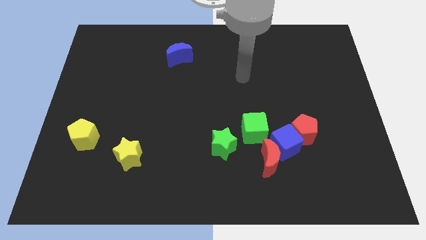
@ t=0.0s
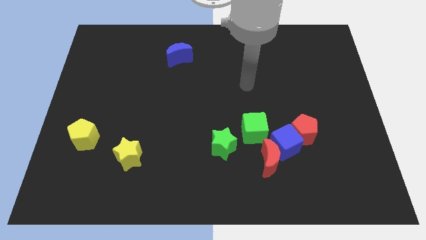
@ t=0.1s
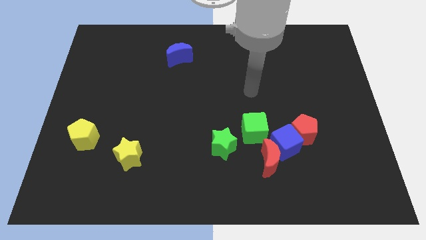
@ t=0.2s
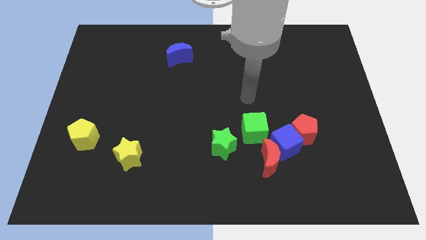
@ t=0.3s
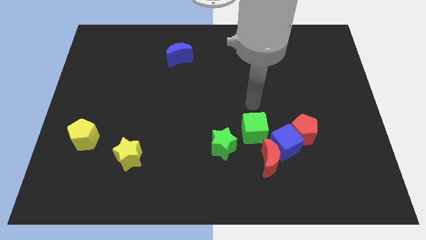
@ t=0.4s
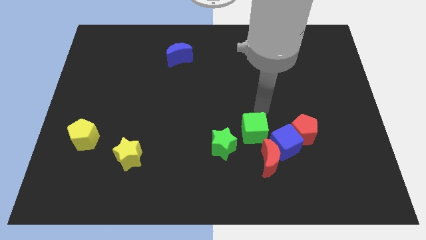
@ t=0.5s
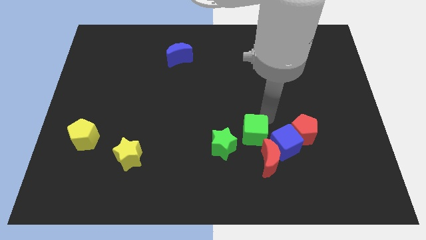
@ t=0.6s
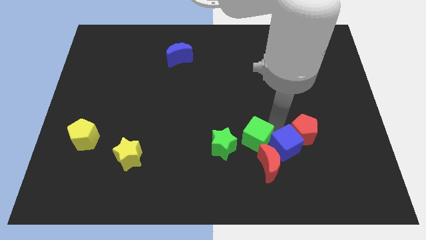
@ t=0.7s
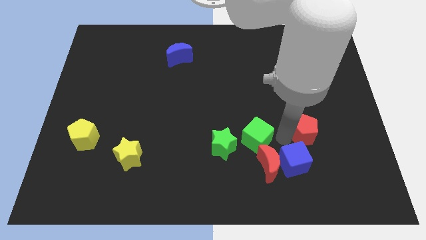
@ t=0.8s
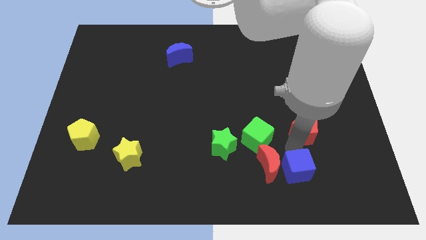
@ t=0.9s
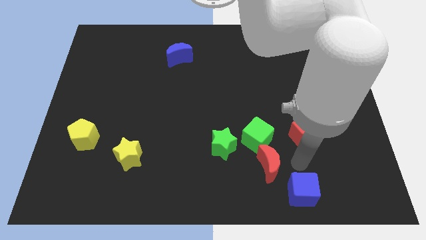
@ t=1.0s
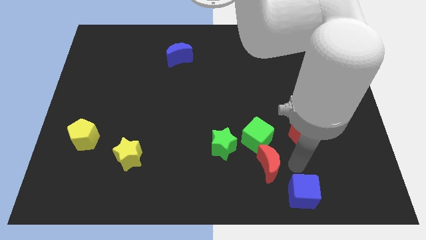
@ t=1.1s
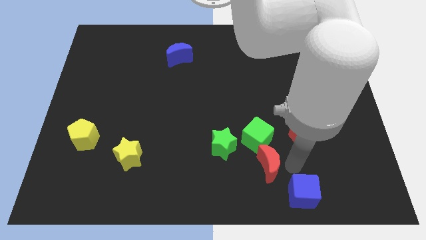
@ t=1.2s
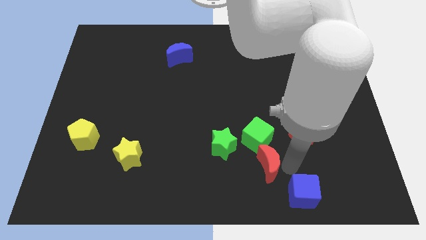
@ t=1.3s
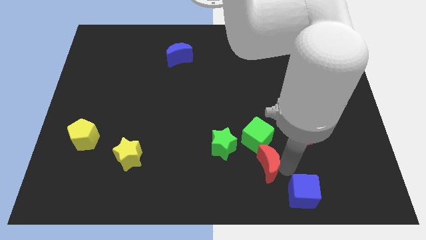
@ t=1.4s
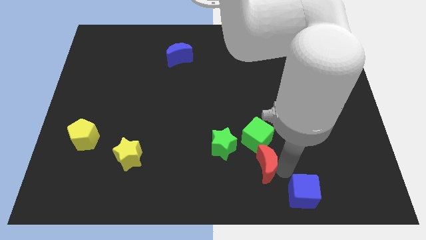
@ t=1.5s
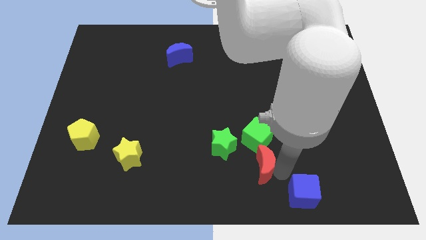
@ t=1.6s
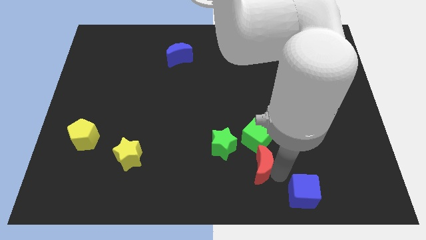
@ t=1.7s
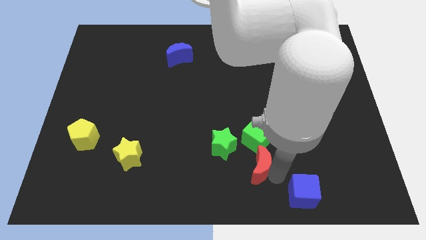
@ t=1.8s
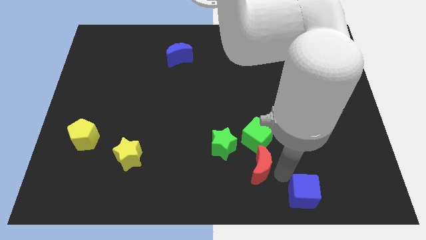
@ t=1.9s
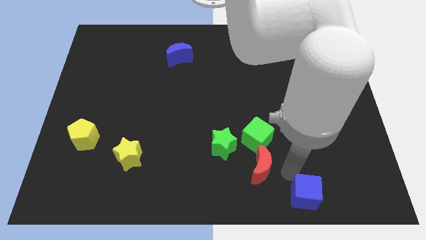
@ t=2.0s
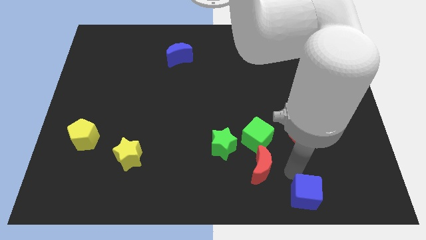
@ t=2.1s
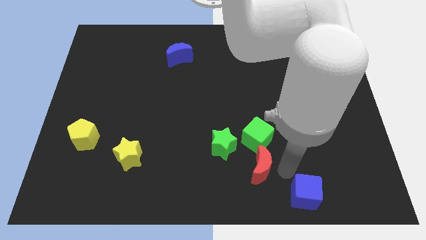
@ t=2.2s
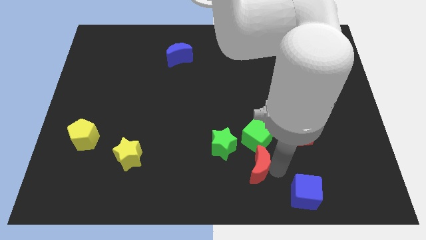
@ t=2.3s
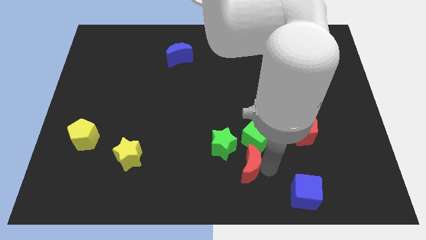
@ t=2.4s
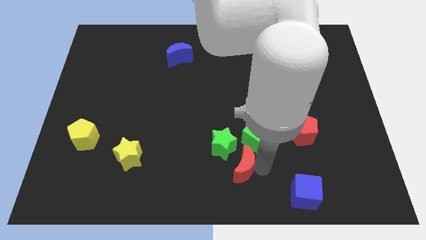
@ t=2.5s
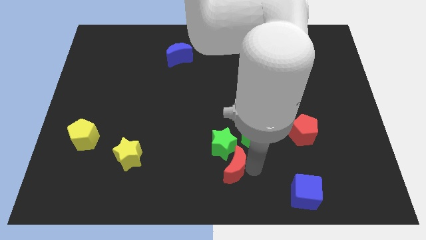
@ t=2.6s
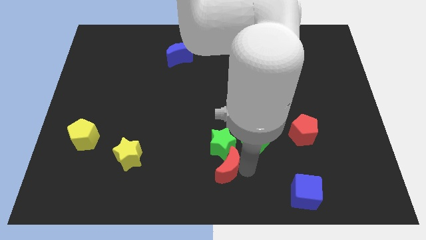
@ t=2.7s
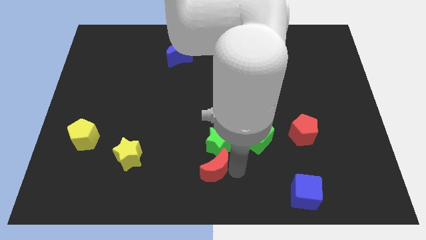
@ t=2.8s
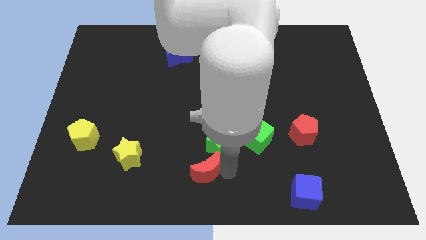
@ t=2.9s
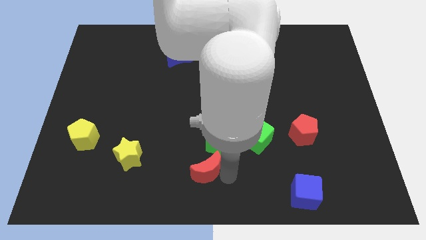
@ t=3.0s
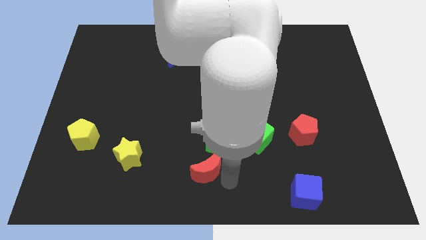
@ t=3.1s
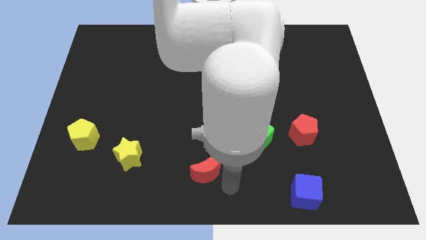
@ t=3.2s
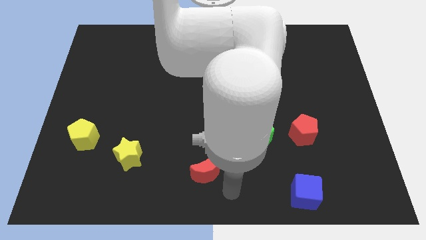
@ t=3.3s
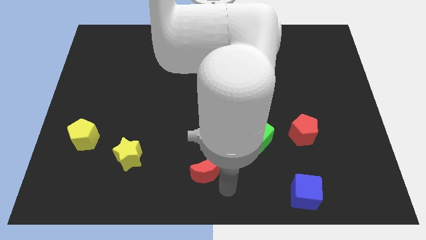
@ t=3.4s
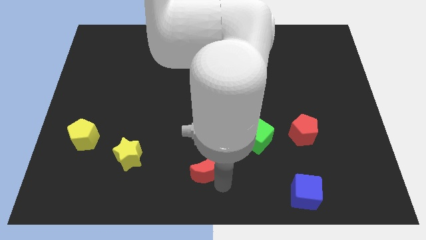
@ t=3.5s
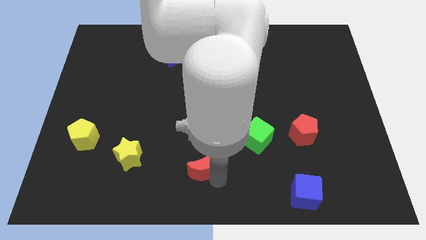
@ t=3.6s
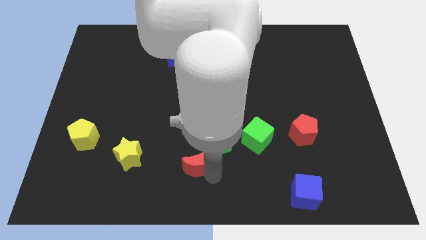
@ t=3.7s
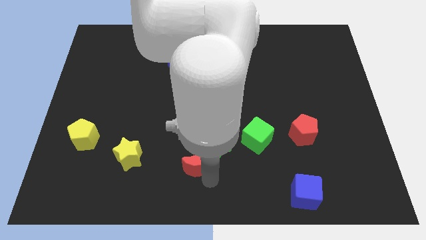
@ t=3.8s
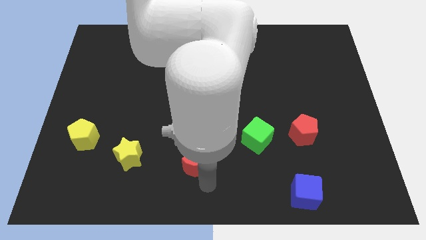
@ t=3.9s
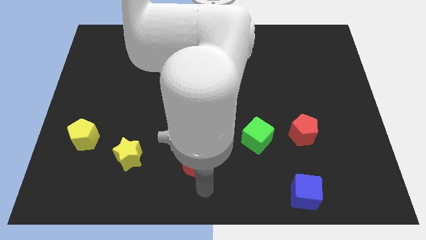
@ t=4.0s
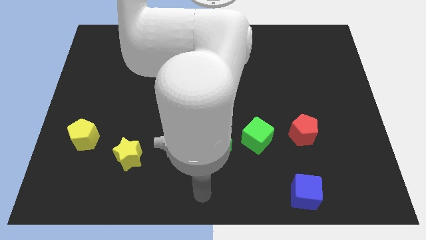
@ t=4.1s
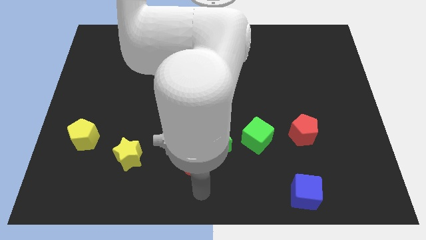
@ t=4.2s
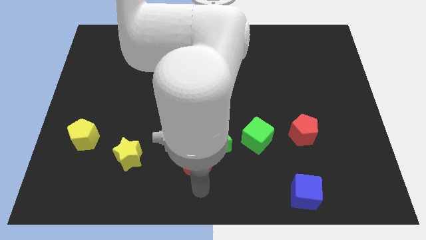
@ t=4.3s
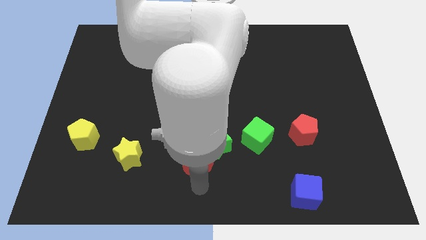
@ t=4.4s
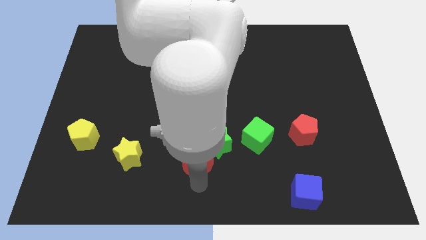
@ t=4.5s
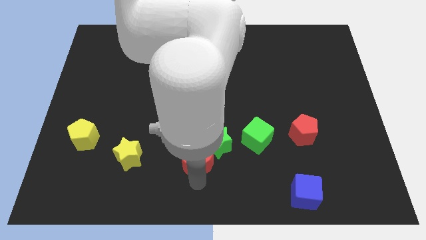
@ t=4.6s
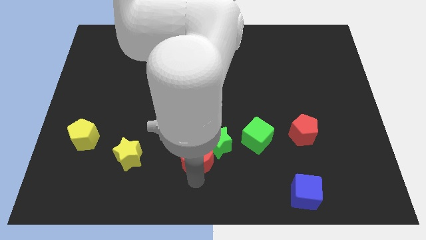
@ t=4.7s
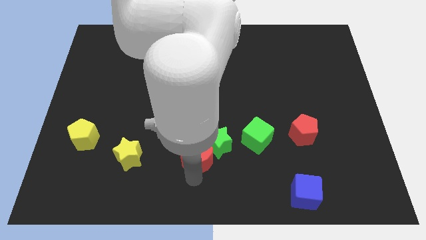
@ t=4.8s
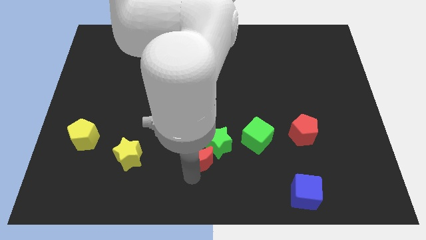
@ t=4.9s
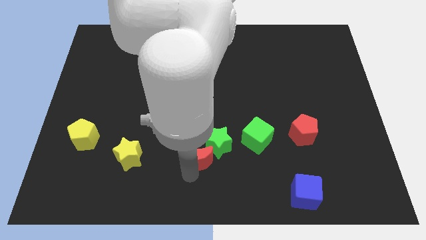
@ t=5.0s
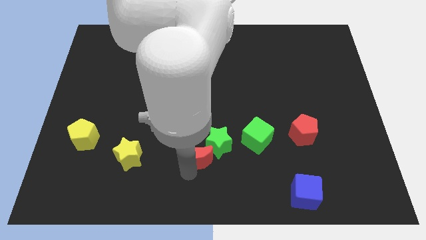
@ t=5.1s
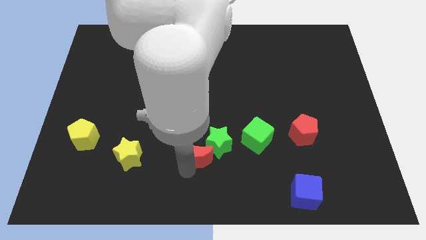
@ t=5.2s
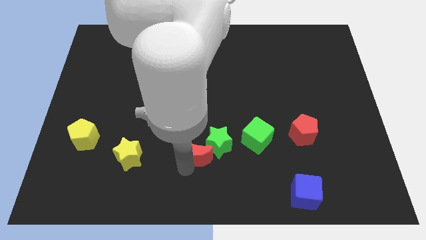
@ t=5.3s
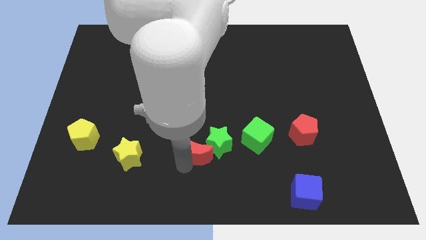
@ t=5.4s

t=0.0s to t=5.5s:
slightly push the red moon diagonally up and left

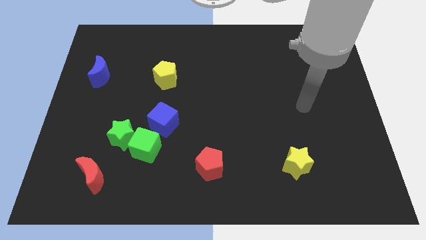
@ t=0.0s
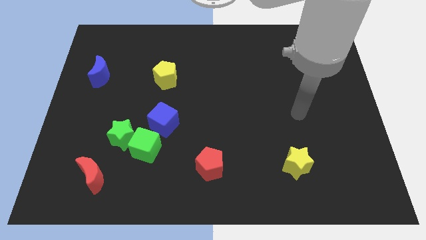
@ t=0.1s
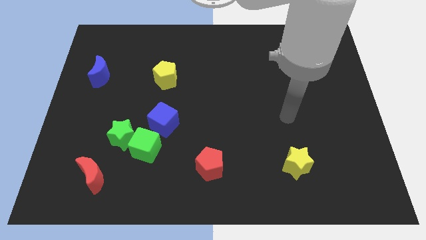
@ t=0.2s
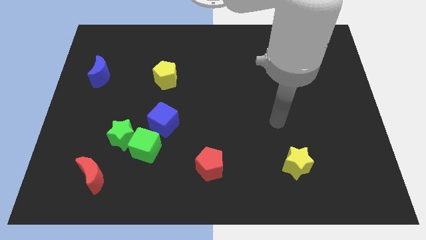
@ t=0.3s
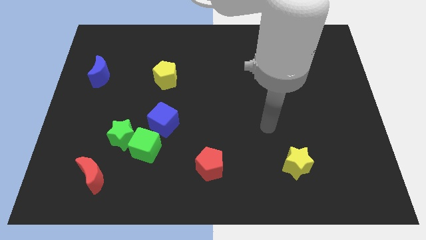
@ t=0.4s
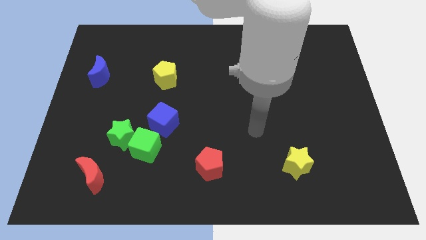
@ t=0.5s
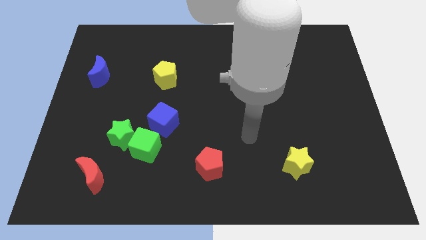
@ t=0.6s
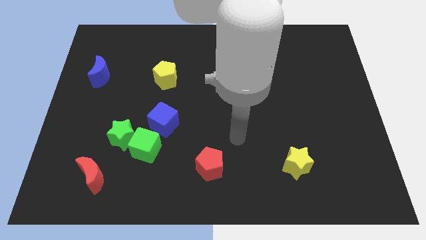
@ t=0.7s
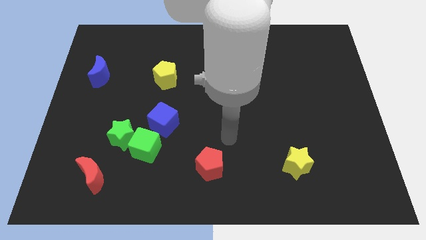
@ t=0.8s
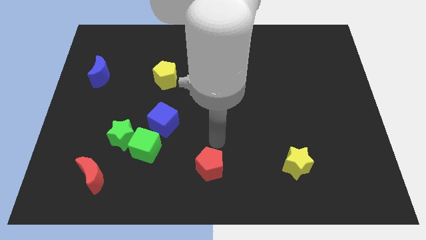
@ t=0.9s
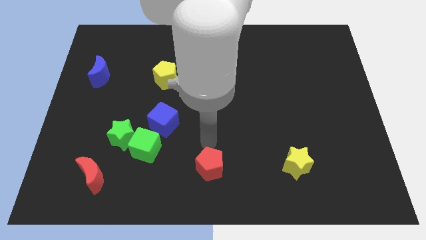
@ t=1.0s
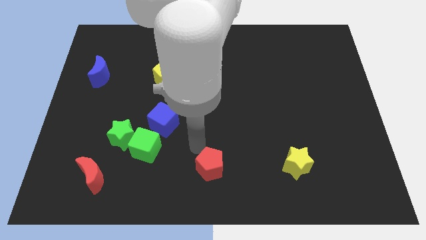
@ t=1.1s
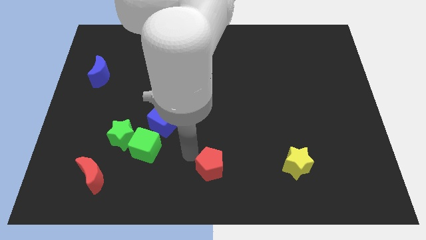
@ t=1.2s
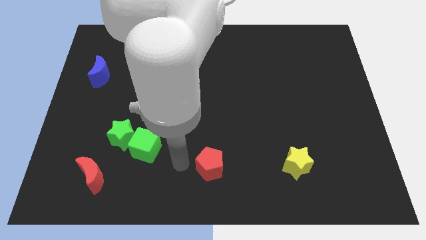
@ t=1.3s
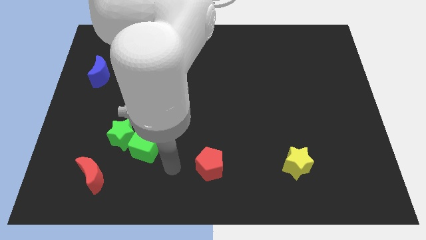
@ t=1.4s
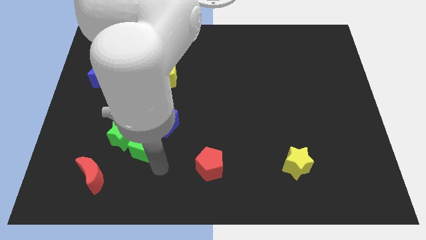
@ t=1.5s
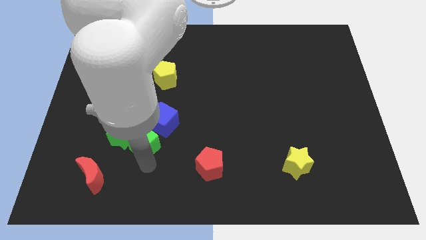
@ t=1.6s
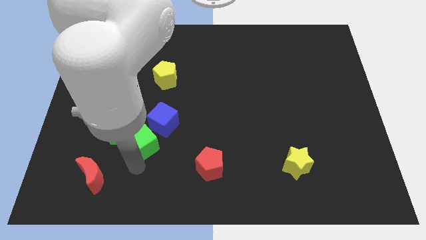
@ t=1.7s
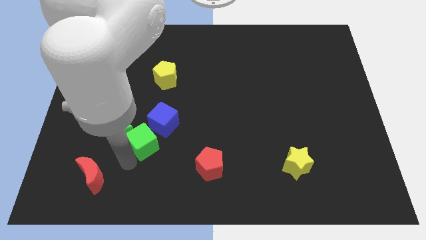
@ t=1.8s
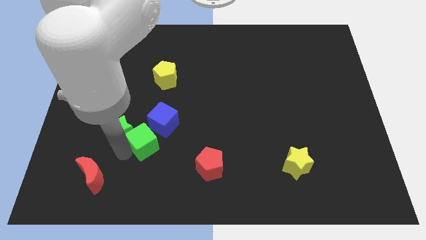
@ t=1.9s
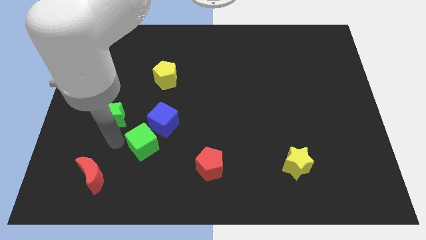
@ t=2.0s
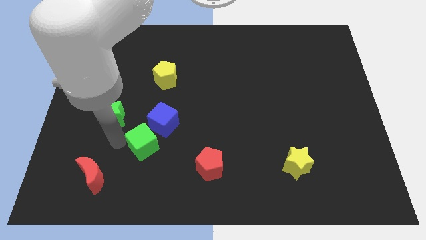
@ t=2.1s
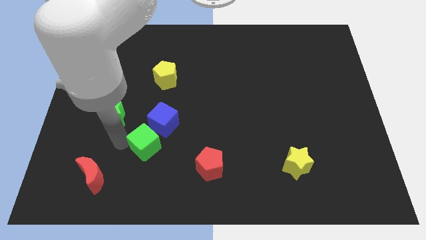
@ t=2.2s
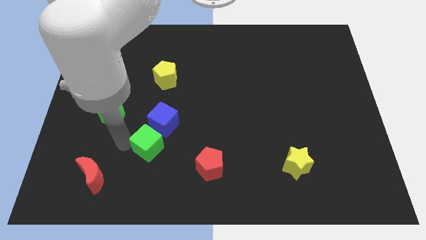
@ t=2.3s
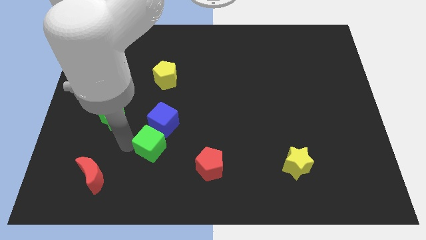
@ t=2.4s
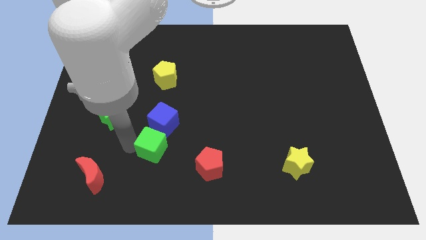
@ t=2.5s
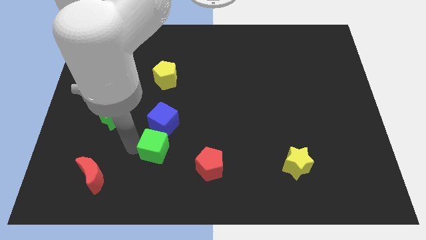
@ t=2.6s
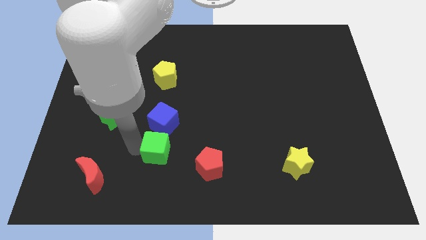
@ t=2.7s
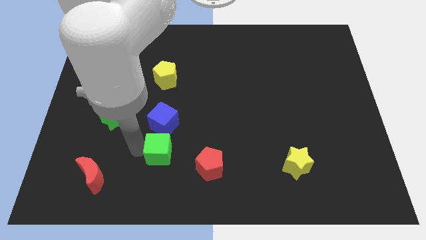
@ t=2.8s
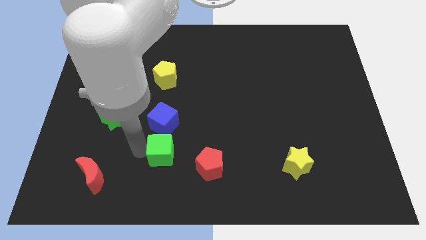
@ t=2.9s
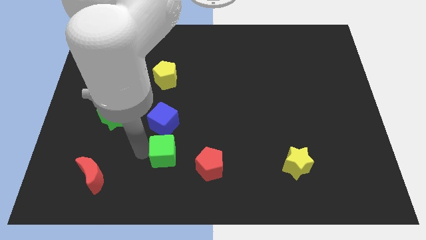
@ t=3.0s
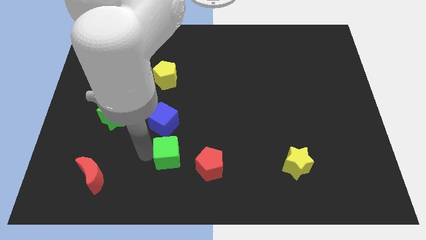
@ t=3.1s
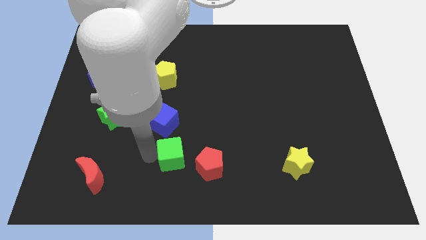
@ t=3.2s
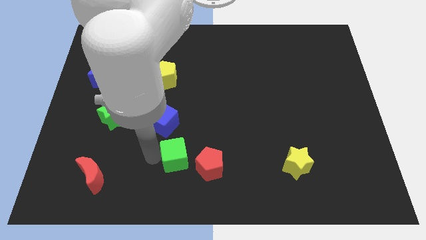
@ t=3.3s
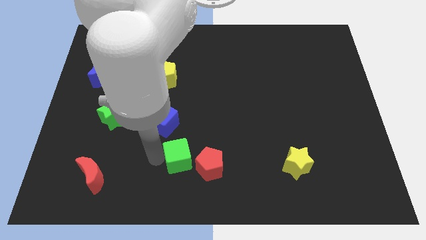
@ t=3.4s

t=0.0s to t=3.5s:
slide the green cube a bit right
